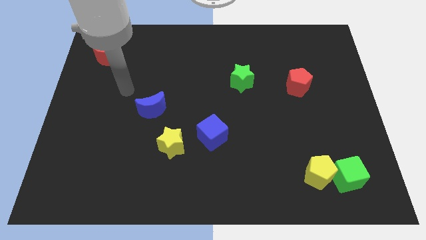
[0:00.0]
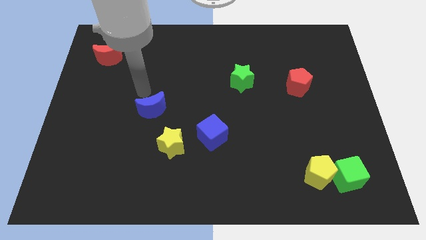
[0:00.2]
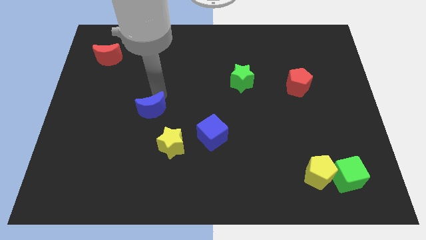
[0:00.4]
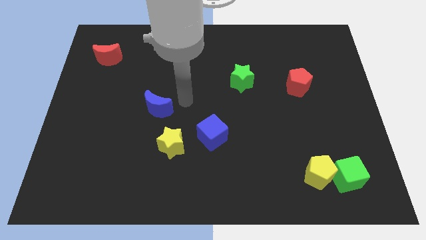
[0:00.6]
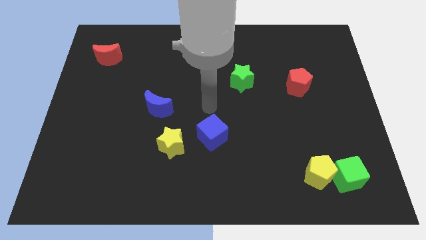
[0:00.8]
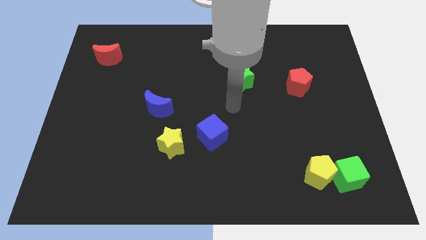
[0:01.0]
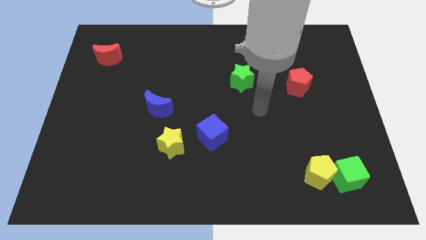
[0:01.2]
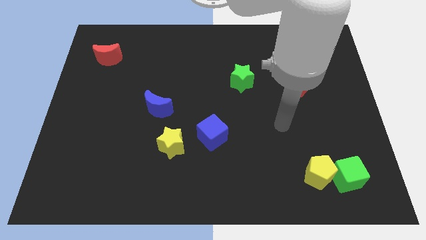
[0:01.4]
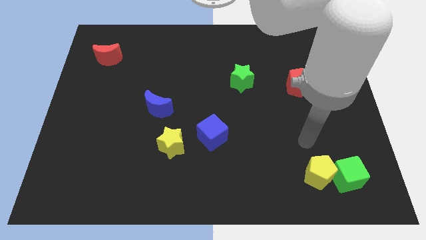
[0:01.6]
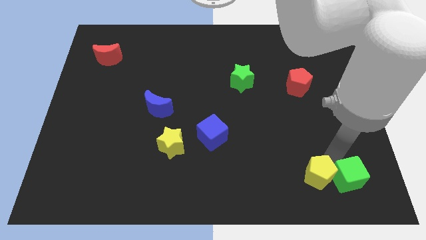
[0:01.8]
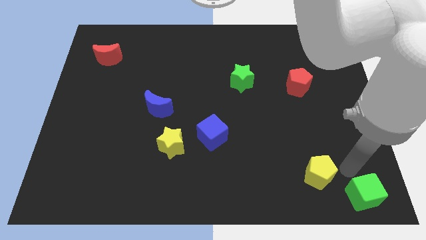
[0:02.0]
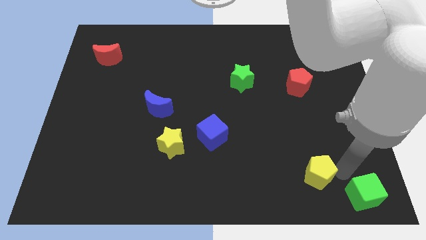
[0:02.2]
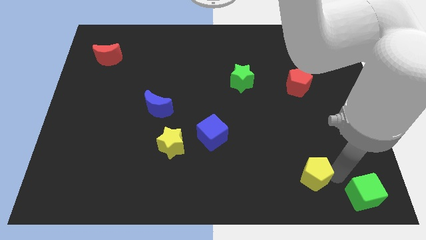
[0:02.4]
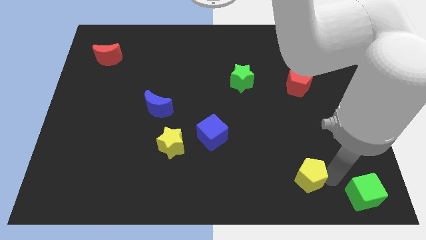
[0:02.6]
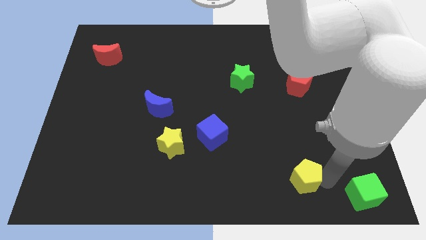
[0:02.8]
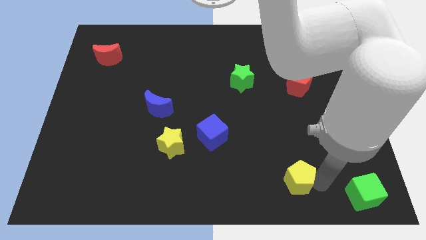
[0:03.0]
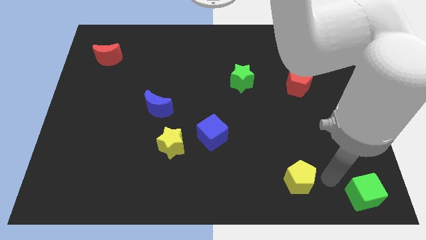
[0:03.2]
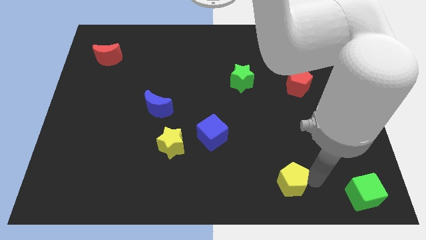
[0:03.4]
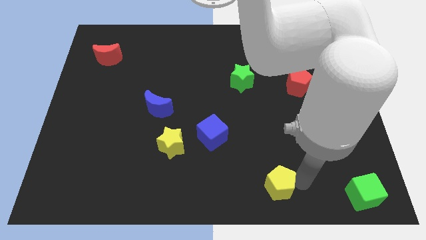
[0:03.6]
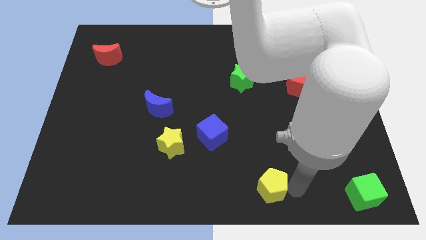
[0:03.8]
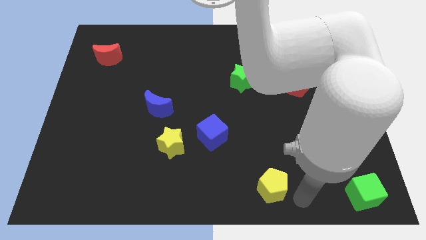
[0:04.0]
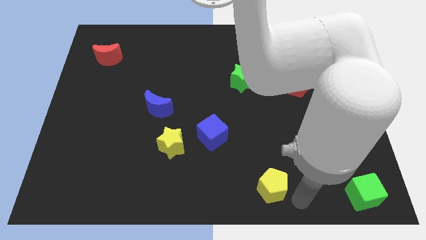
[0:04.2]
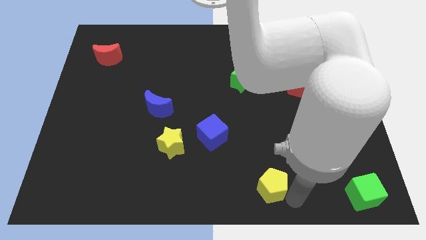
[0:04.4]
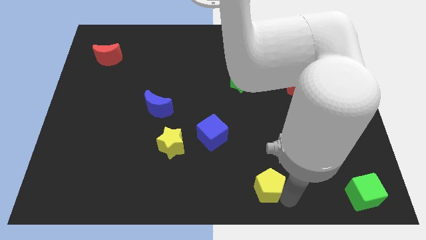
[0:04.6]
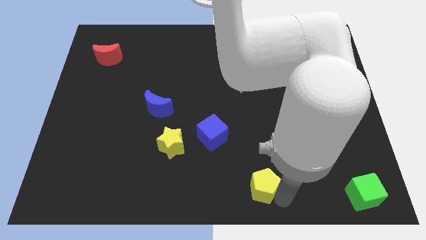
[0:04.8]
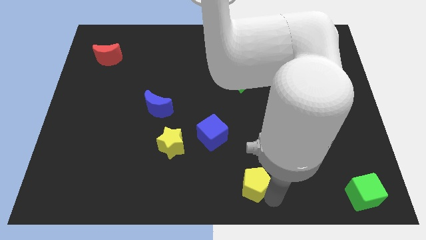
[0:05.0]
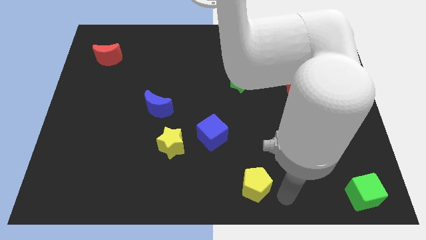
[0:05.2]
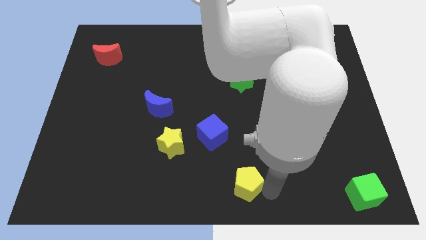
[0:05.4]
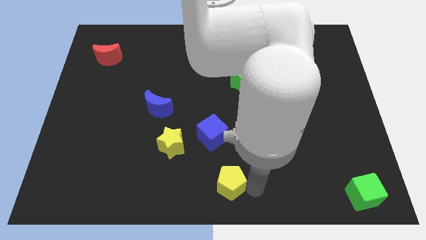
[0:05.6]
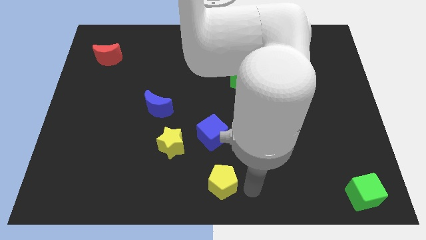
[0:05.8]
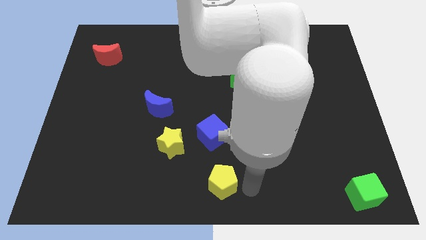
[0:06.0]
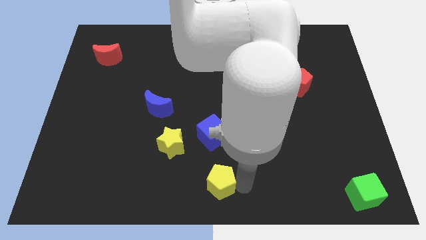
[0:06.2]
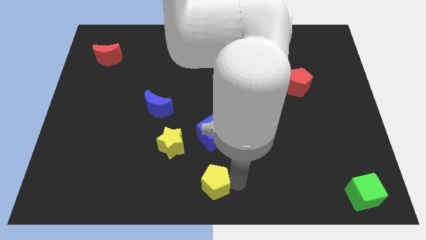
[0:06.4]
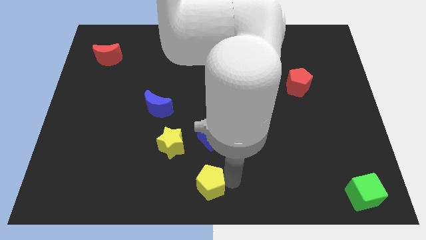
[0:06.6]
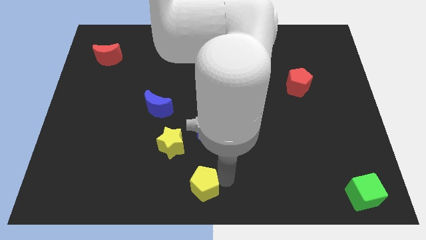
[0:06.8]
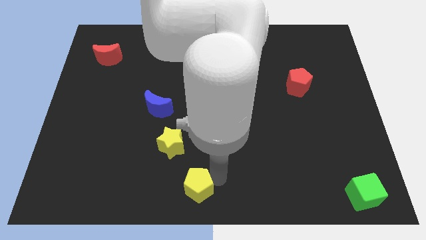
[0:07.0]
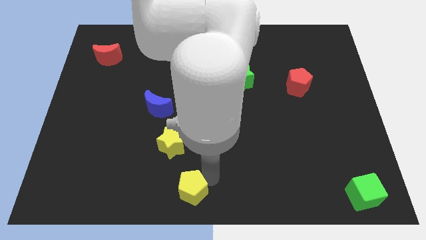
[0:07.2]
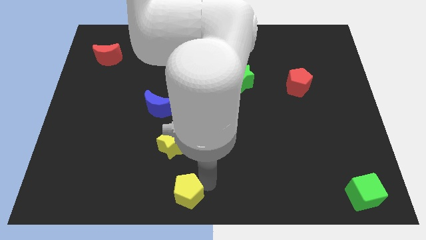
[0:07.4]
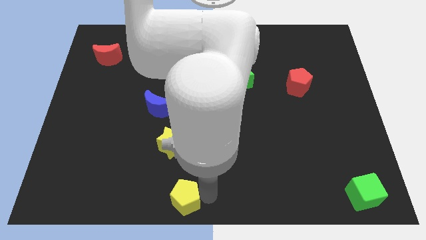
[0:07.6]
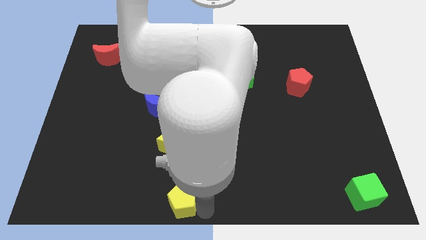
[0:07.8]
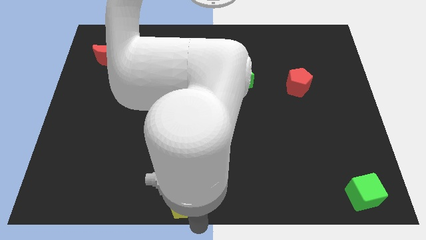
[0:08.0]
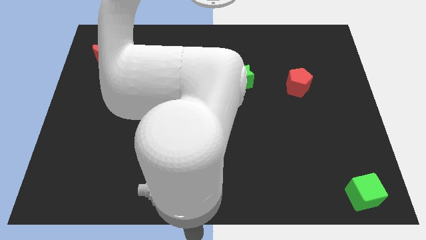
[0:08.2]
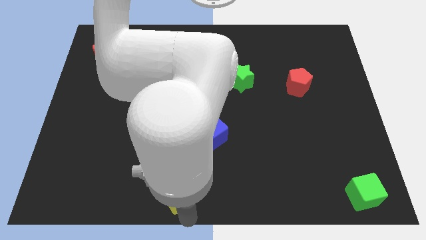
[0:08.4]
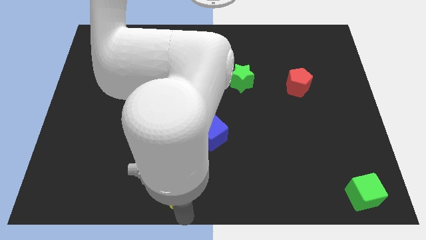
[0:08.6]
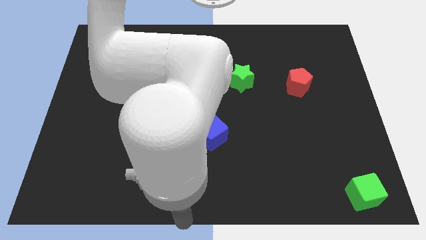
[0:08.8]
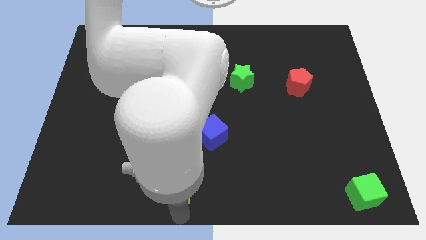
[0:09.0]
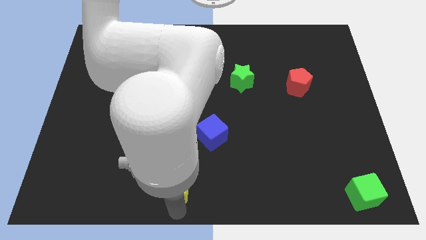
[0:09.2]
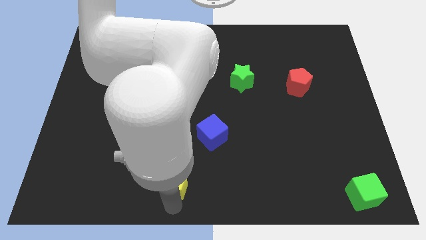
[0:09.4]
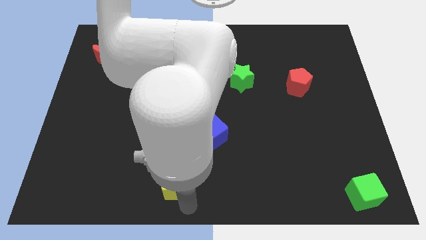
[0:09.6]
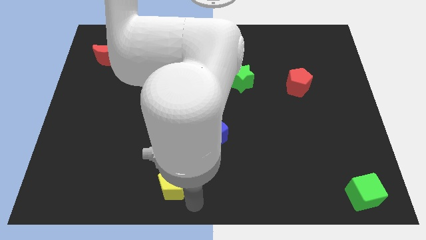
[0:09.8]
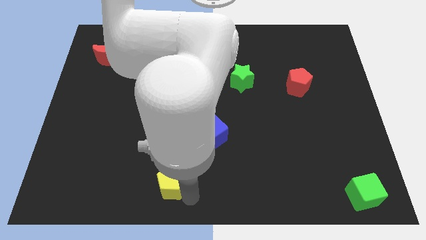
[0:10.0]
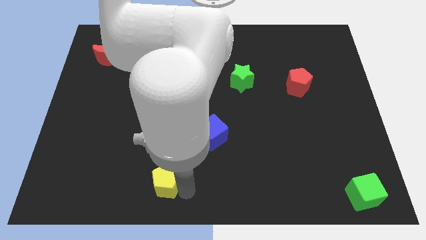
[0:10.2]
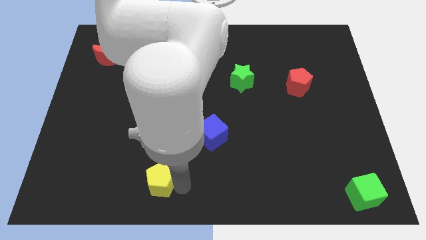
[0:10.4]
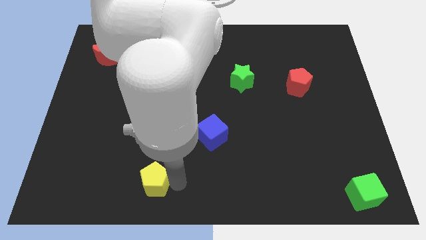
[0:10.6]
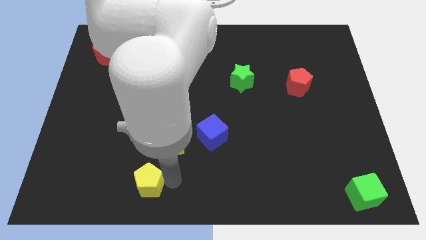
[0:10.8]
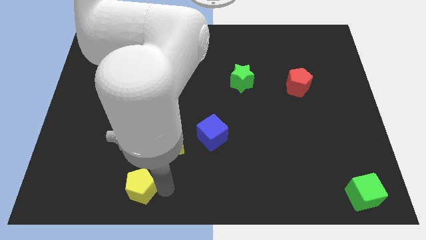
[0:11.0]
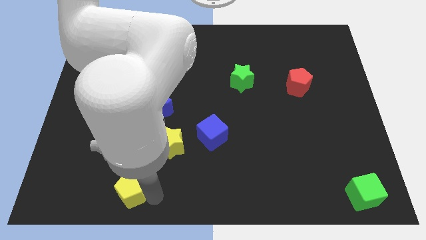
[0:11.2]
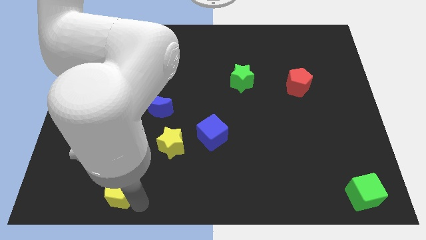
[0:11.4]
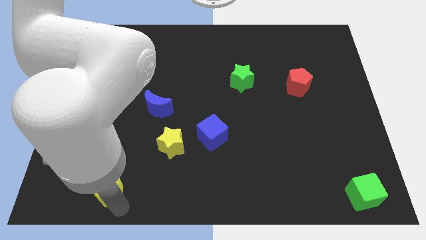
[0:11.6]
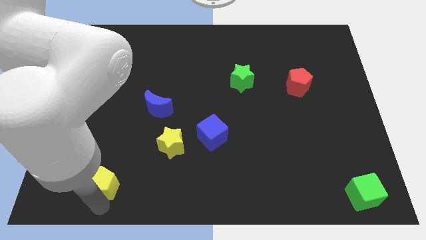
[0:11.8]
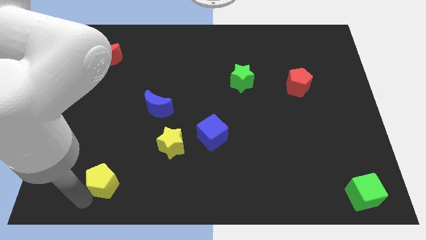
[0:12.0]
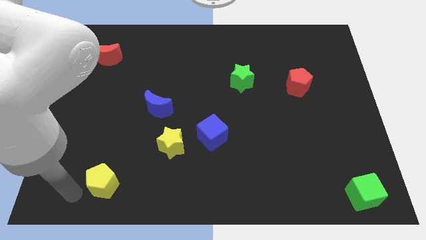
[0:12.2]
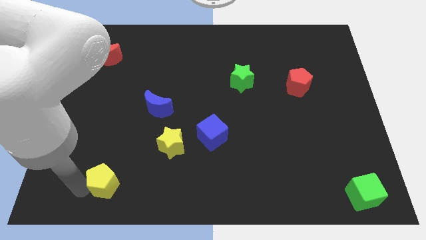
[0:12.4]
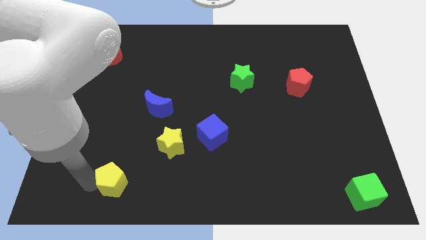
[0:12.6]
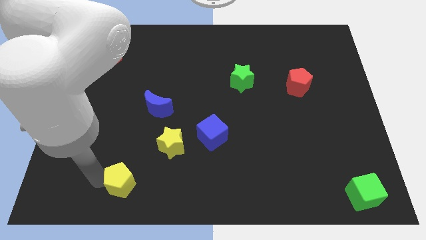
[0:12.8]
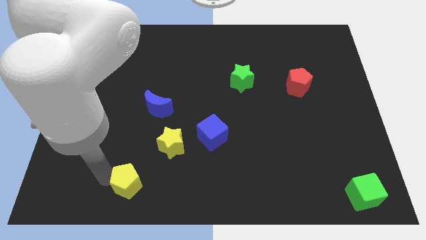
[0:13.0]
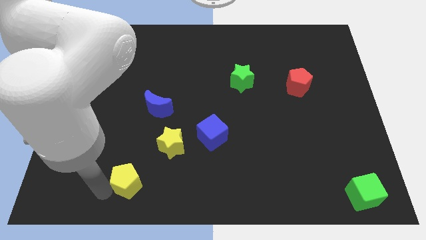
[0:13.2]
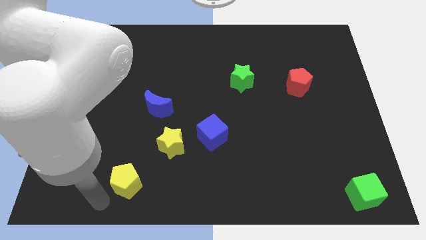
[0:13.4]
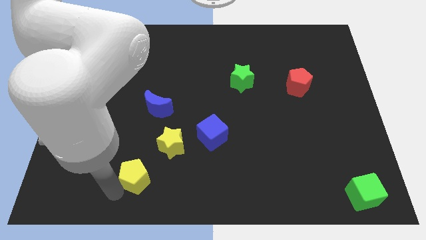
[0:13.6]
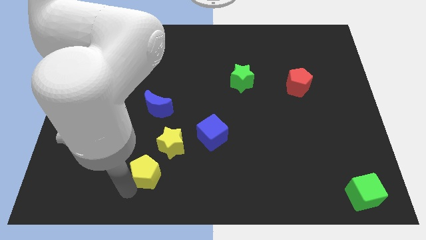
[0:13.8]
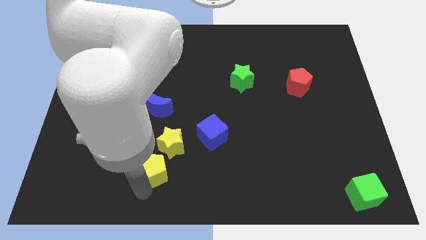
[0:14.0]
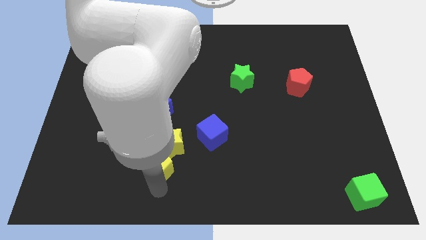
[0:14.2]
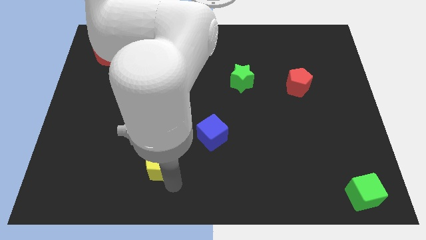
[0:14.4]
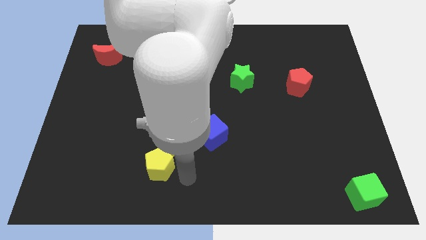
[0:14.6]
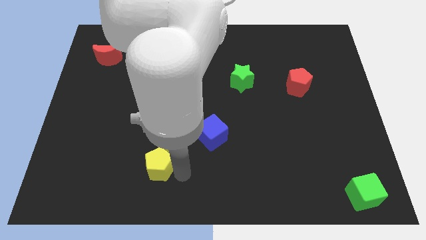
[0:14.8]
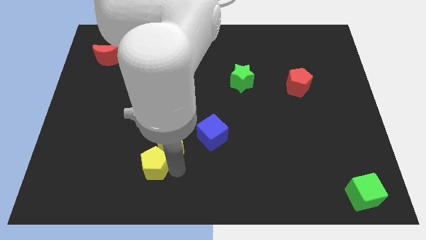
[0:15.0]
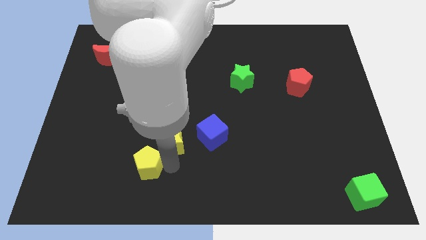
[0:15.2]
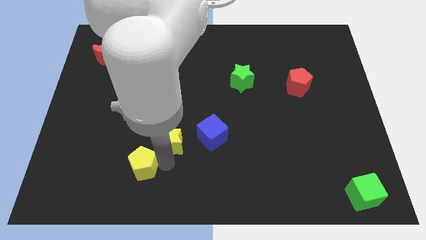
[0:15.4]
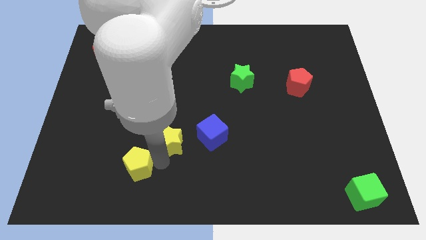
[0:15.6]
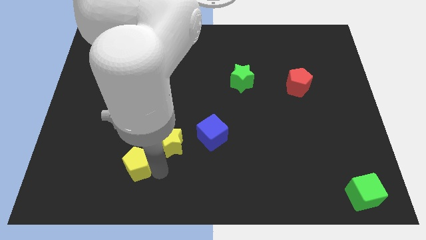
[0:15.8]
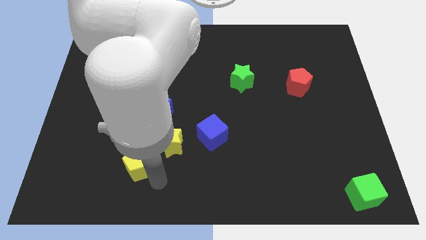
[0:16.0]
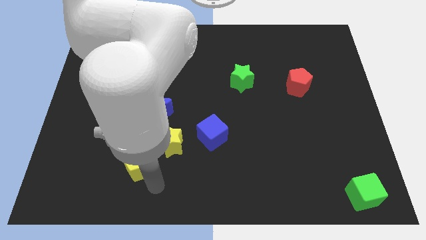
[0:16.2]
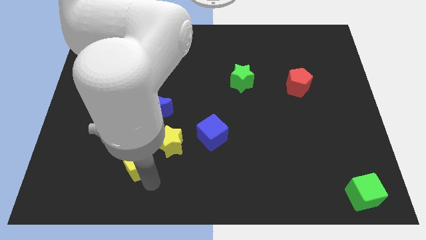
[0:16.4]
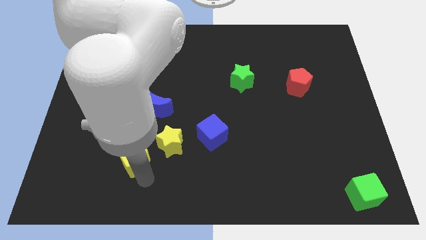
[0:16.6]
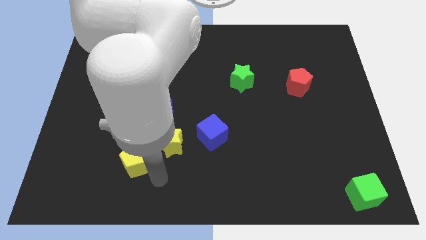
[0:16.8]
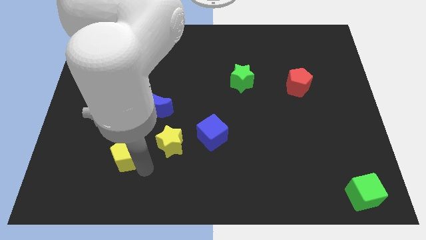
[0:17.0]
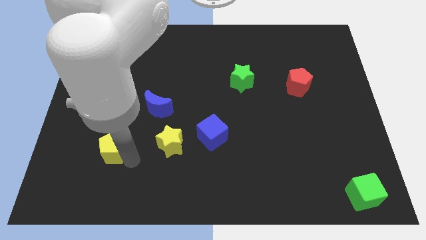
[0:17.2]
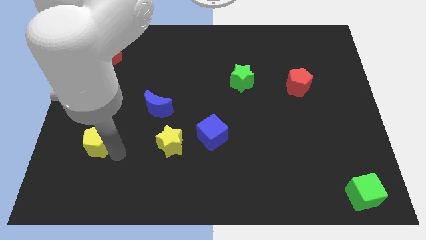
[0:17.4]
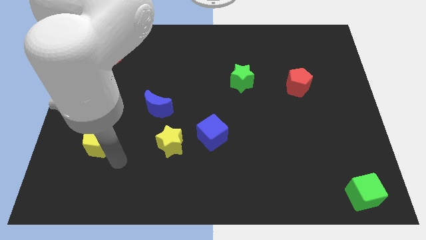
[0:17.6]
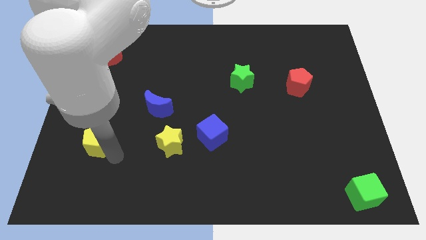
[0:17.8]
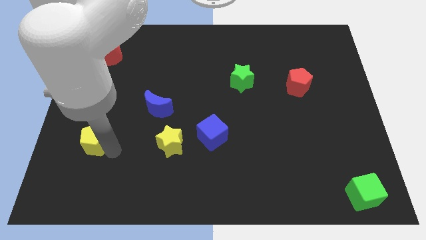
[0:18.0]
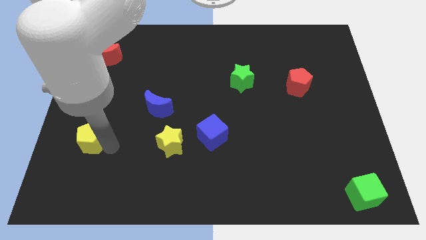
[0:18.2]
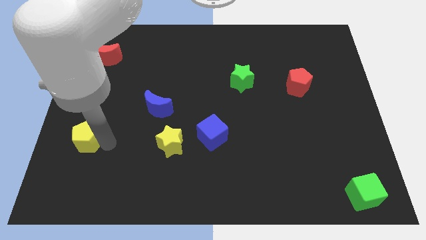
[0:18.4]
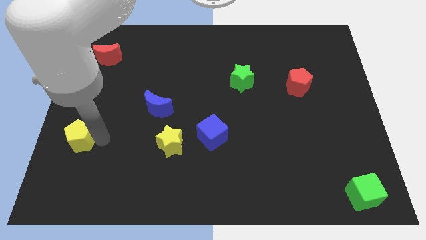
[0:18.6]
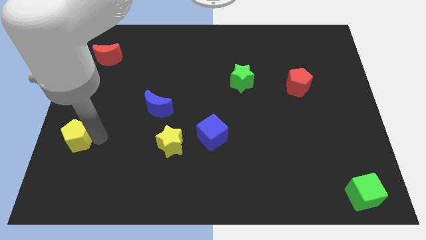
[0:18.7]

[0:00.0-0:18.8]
push the yellow pentagon to the center left
